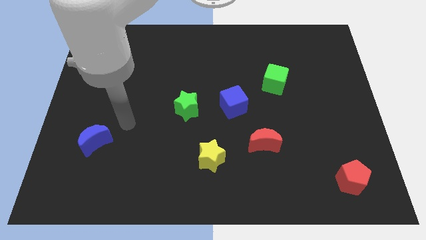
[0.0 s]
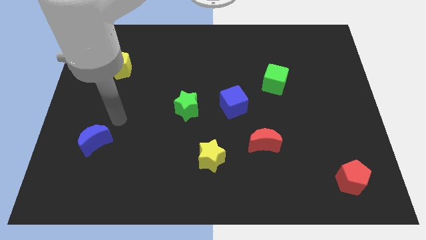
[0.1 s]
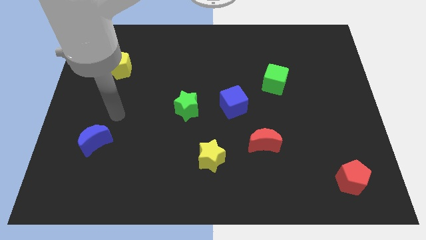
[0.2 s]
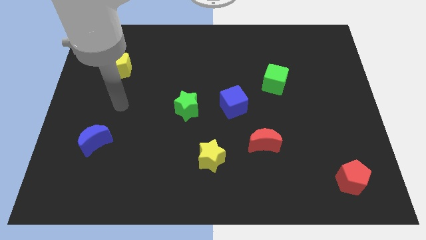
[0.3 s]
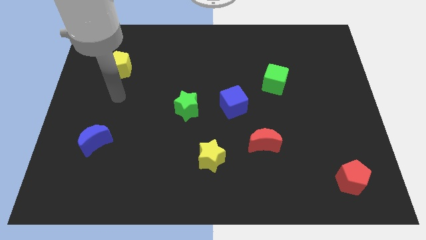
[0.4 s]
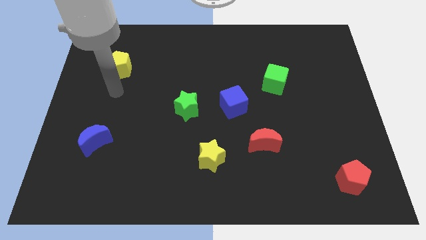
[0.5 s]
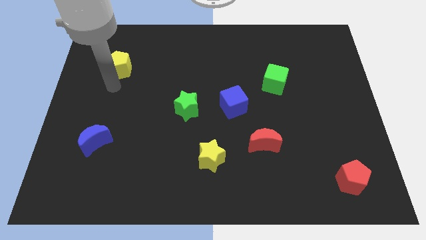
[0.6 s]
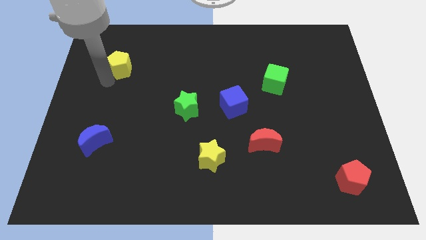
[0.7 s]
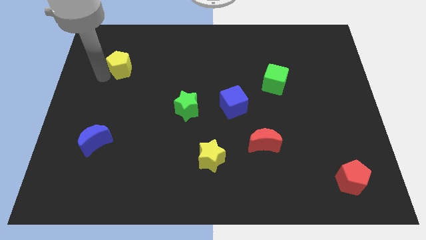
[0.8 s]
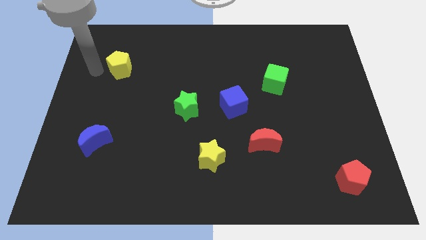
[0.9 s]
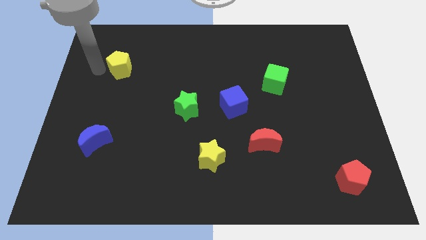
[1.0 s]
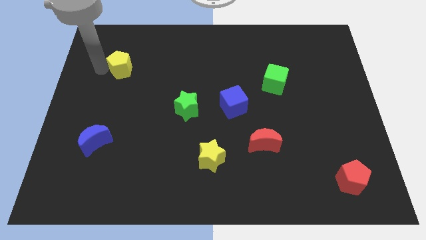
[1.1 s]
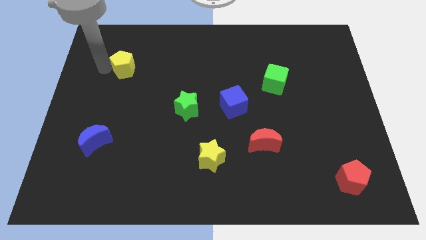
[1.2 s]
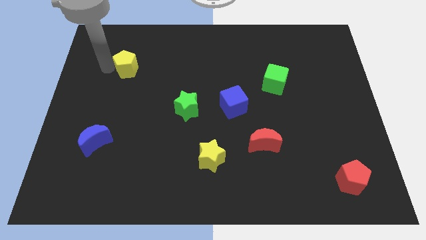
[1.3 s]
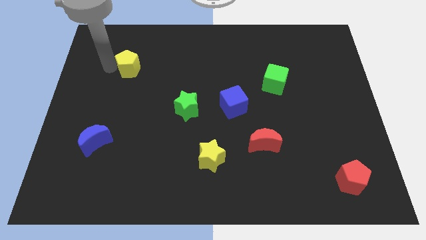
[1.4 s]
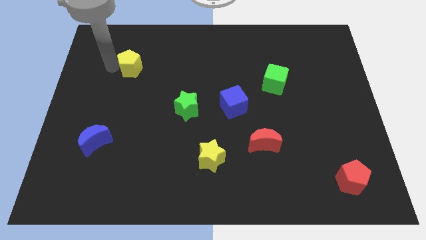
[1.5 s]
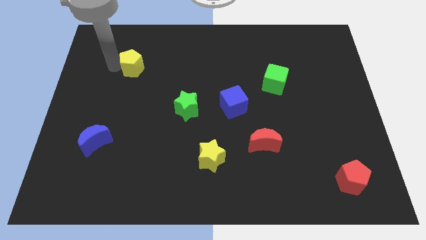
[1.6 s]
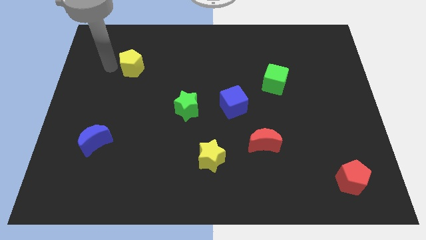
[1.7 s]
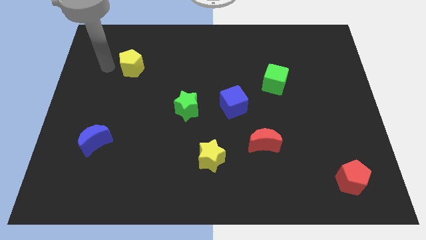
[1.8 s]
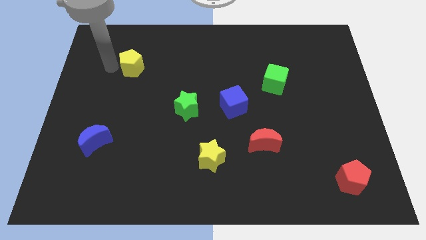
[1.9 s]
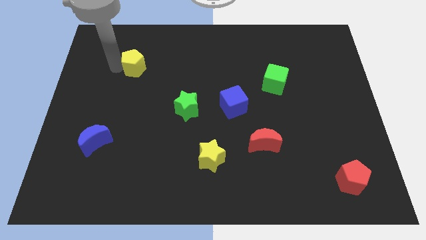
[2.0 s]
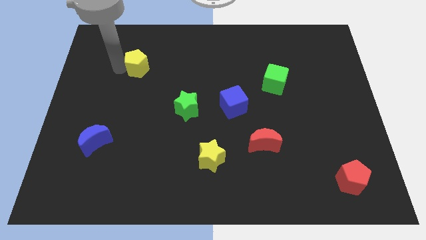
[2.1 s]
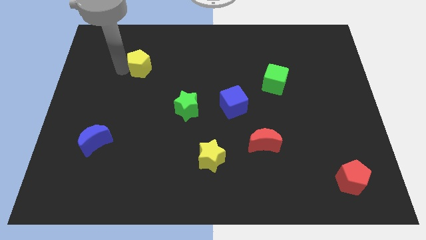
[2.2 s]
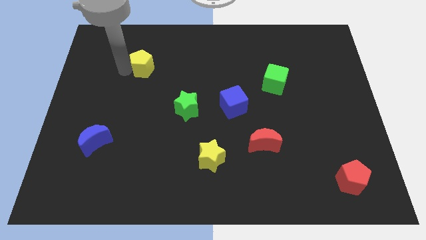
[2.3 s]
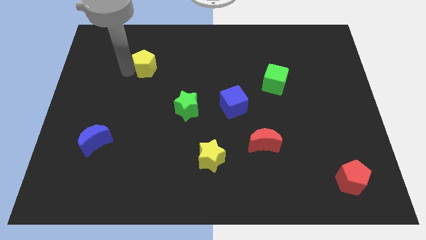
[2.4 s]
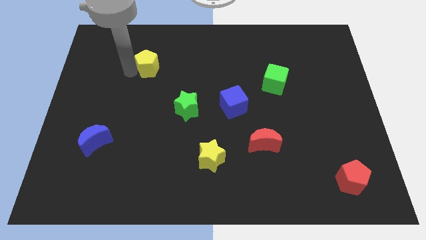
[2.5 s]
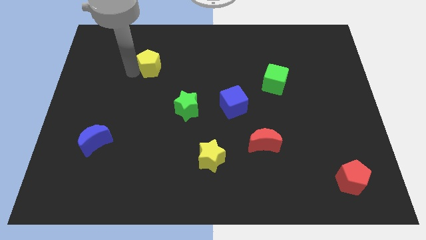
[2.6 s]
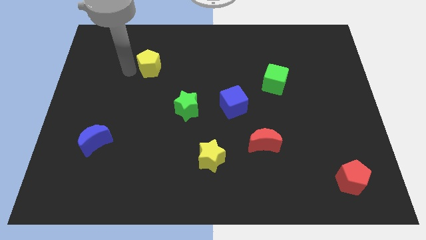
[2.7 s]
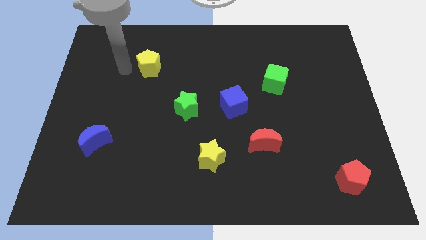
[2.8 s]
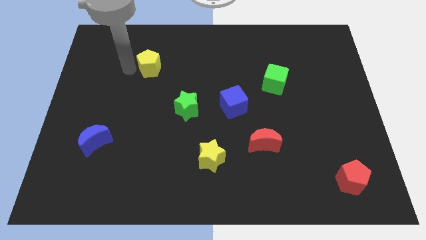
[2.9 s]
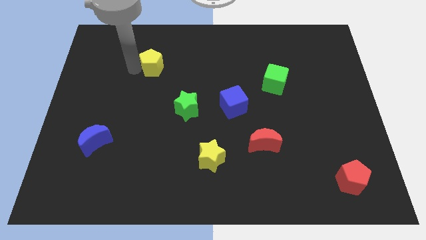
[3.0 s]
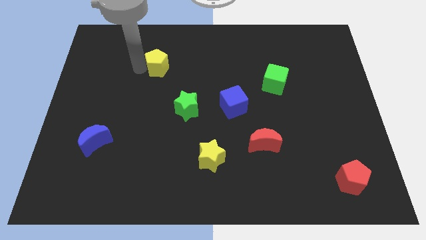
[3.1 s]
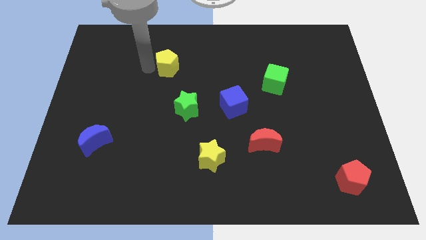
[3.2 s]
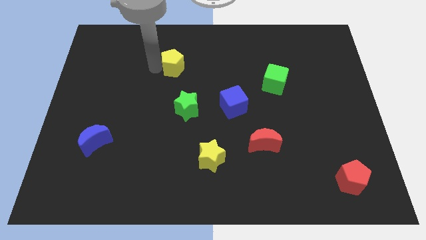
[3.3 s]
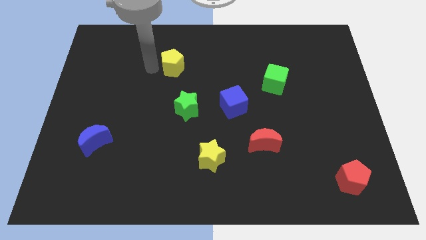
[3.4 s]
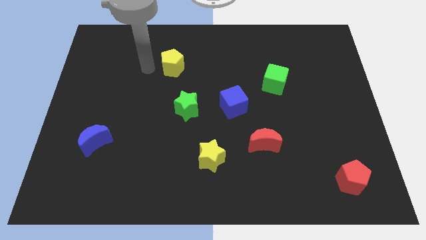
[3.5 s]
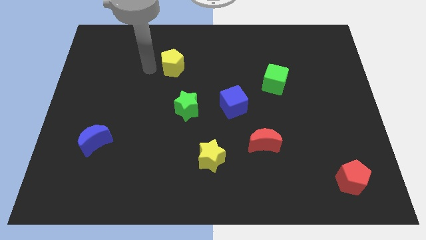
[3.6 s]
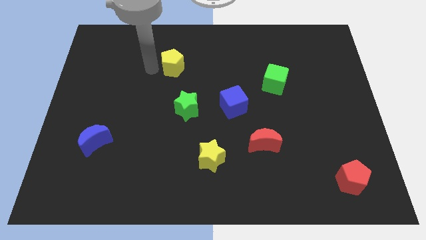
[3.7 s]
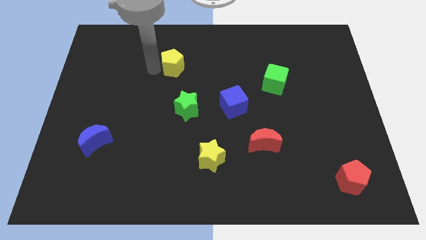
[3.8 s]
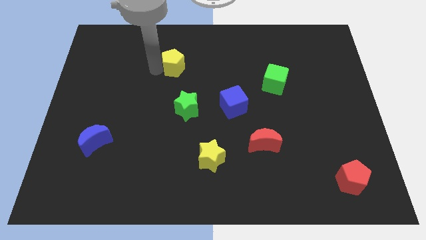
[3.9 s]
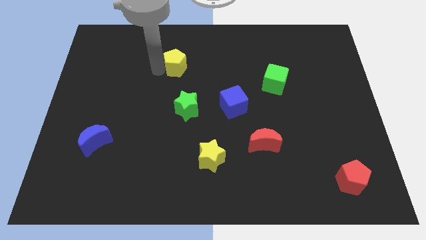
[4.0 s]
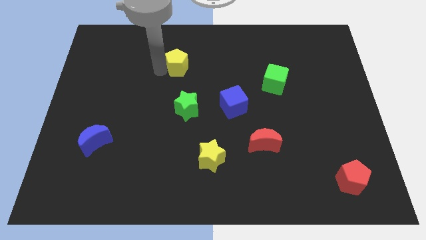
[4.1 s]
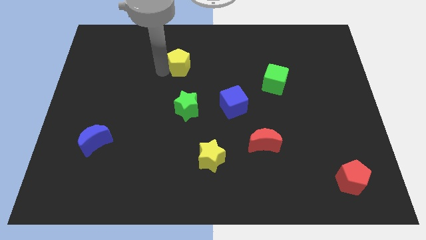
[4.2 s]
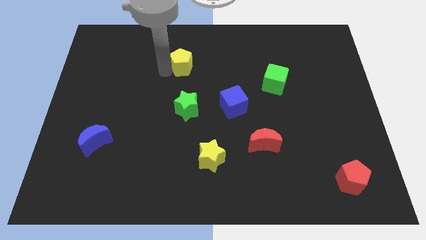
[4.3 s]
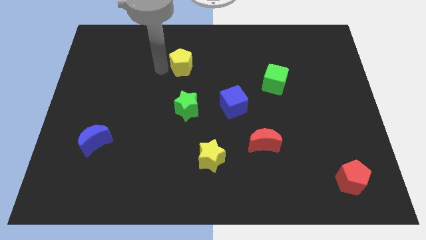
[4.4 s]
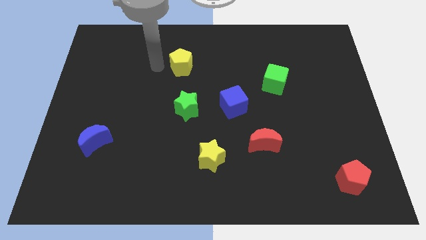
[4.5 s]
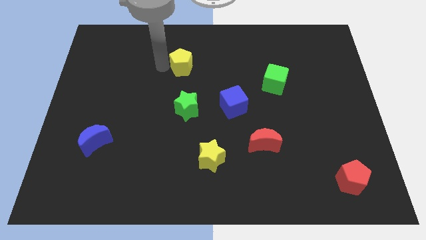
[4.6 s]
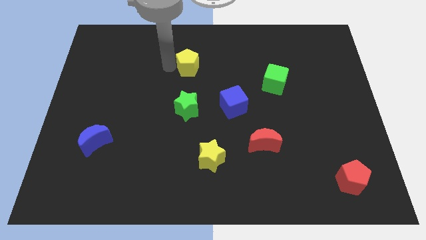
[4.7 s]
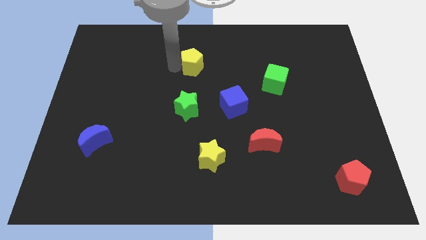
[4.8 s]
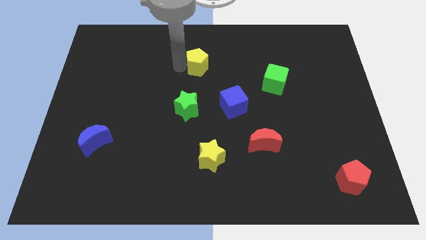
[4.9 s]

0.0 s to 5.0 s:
slide the yellow pentagon right

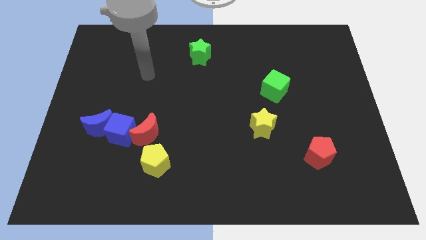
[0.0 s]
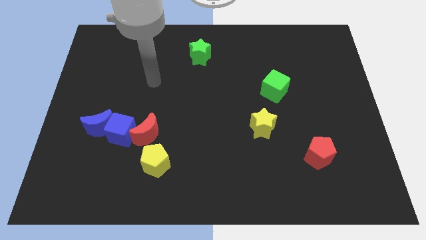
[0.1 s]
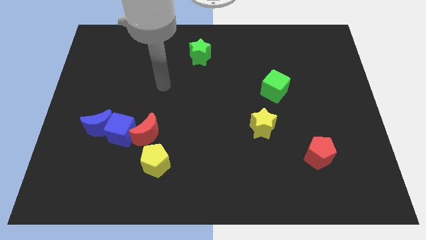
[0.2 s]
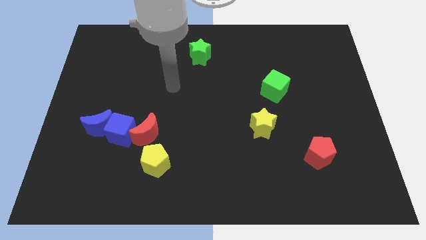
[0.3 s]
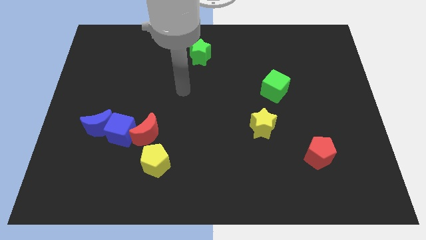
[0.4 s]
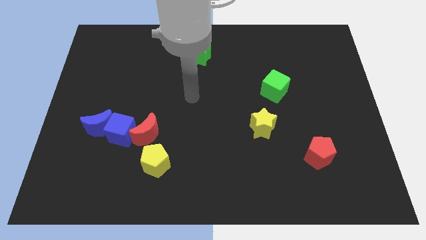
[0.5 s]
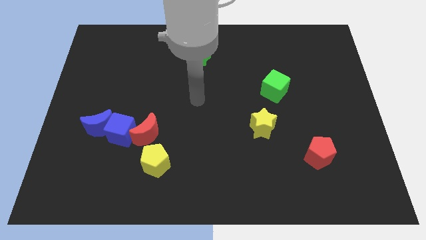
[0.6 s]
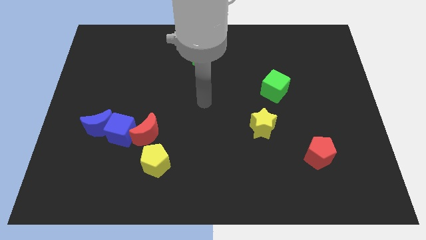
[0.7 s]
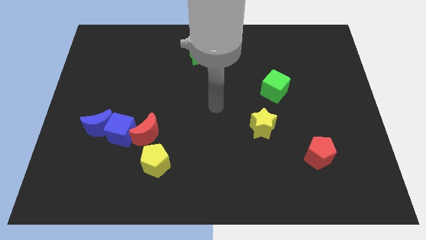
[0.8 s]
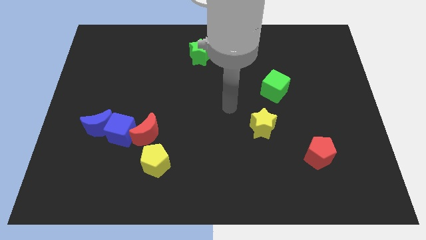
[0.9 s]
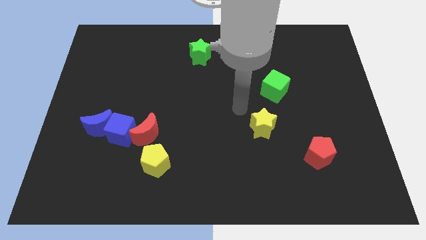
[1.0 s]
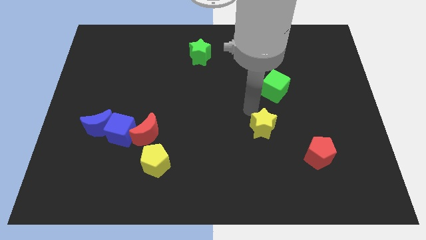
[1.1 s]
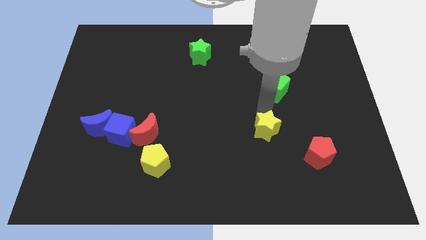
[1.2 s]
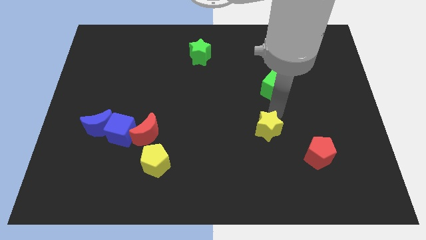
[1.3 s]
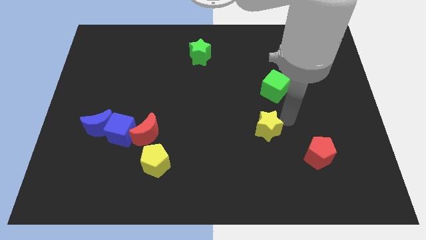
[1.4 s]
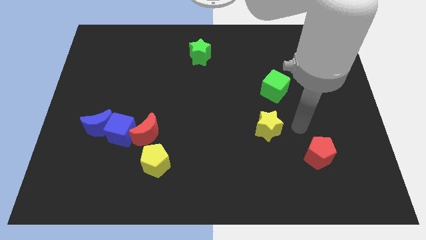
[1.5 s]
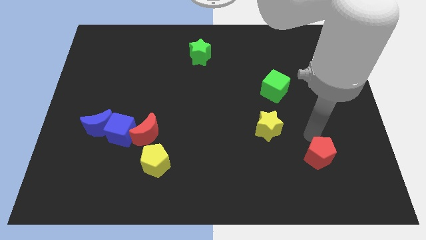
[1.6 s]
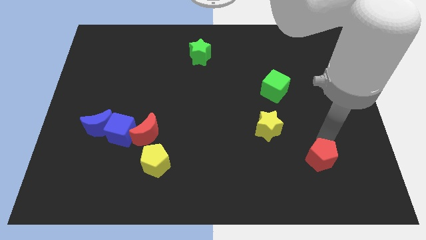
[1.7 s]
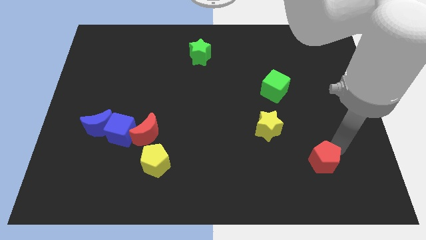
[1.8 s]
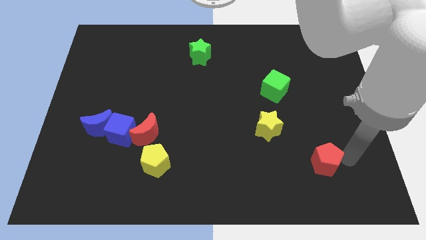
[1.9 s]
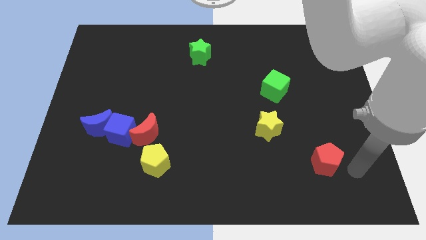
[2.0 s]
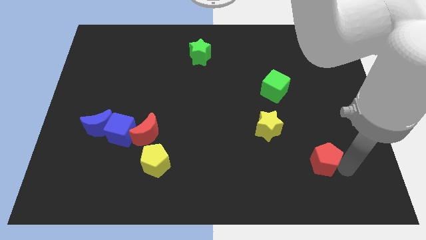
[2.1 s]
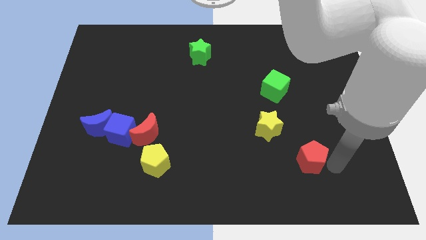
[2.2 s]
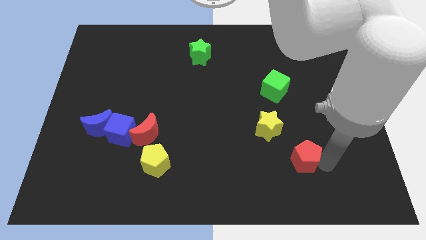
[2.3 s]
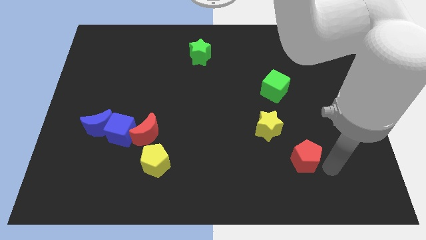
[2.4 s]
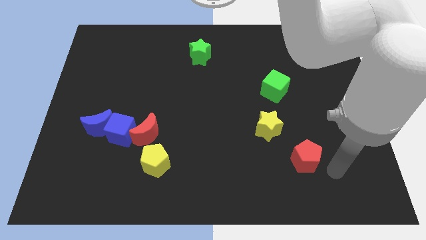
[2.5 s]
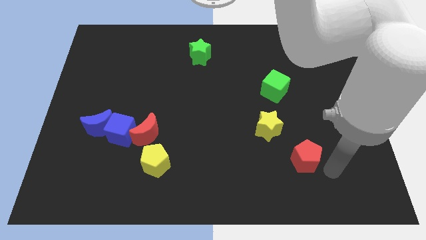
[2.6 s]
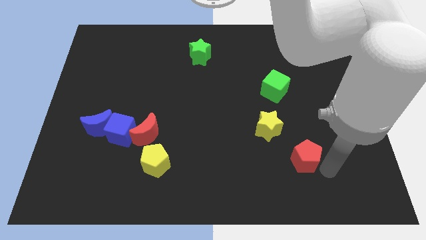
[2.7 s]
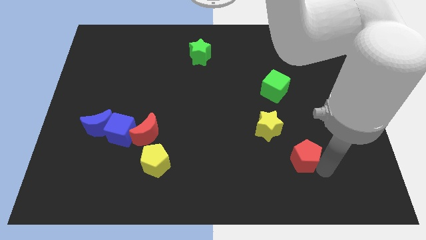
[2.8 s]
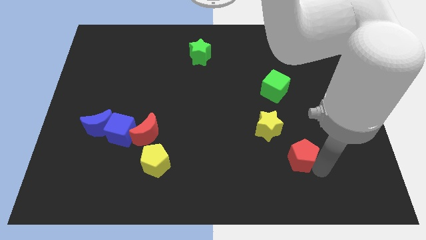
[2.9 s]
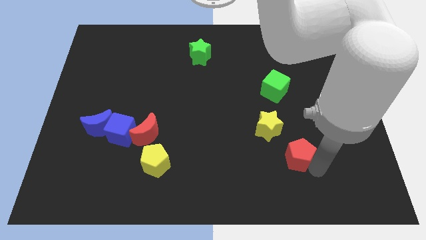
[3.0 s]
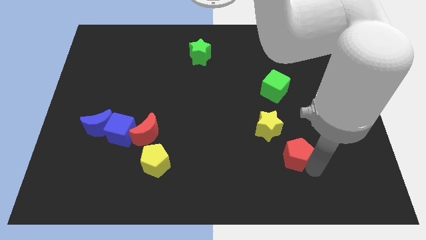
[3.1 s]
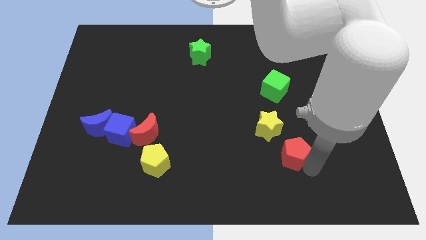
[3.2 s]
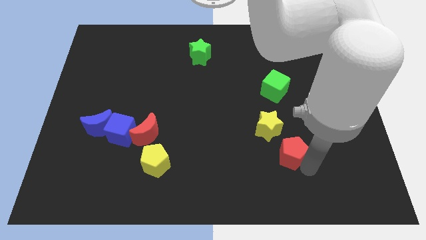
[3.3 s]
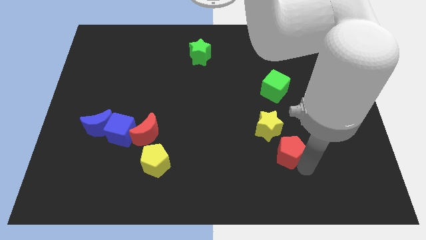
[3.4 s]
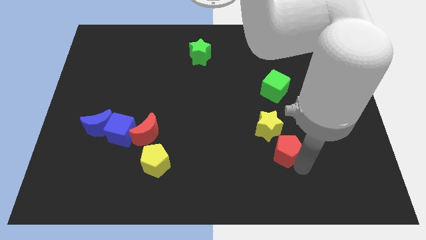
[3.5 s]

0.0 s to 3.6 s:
move the red pentagon to the left a little
